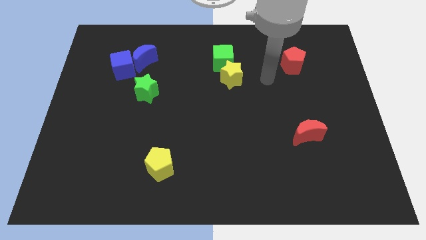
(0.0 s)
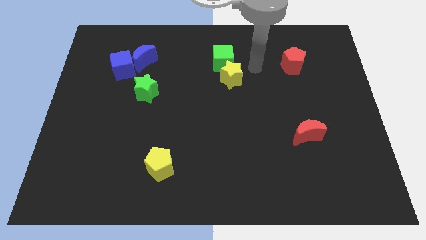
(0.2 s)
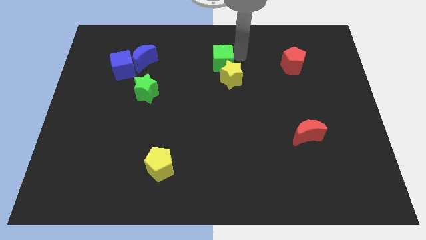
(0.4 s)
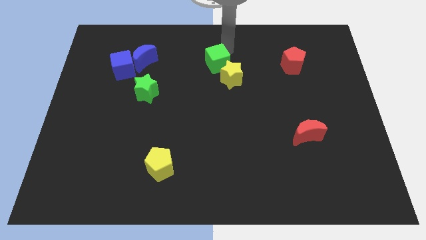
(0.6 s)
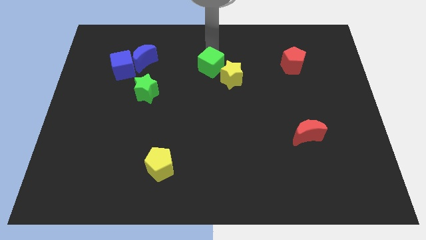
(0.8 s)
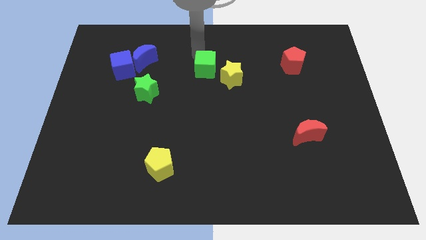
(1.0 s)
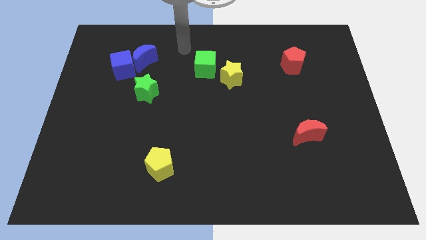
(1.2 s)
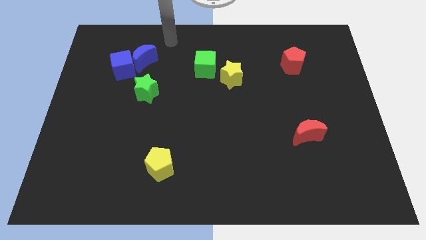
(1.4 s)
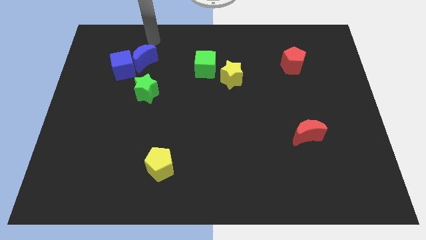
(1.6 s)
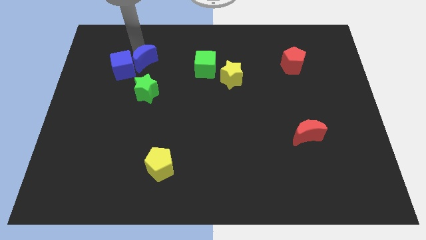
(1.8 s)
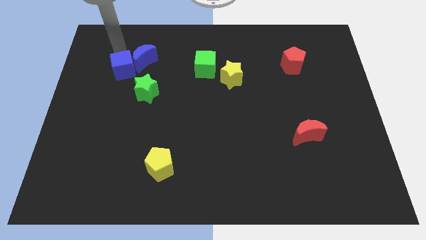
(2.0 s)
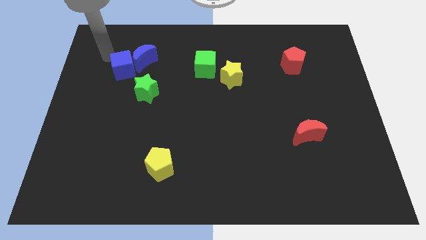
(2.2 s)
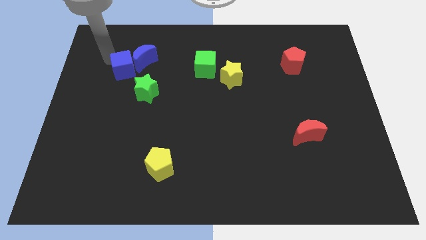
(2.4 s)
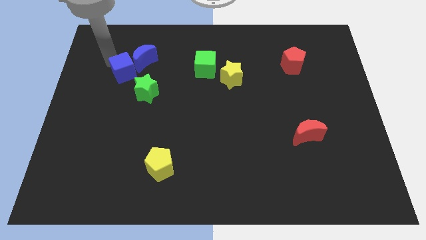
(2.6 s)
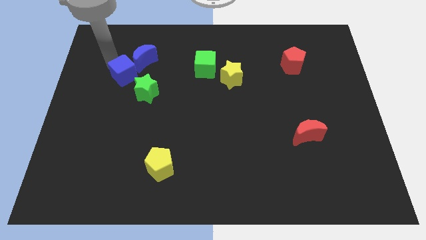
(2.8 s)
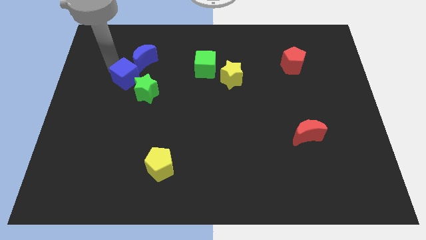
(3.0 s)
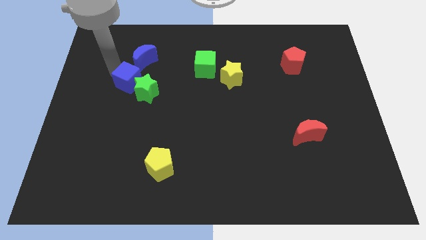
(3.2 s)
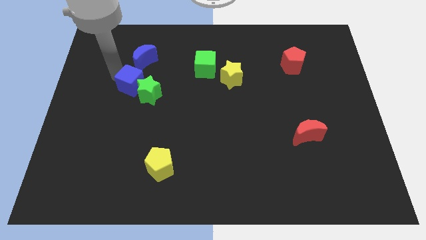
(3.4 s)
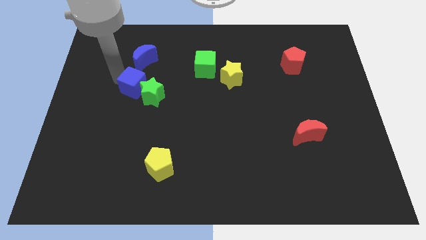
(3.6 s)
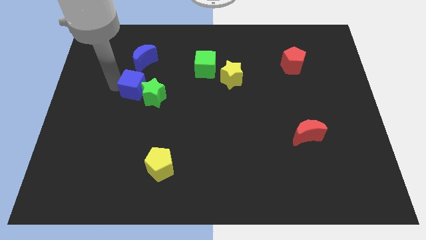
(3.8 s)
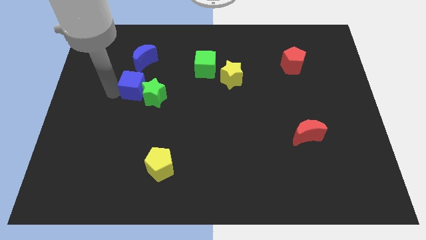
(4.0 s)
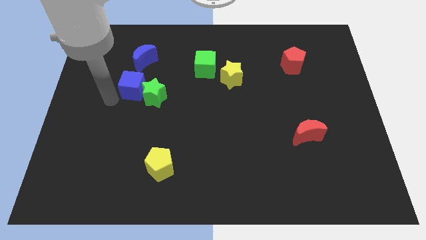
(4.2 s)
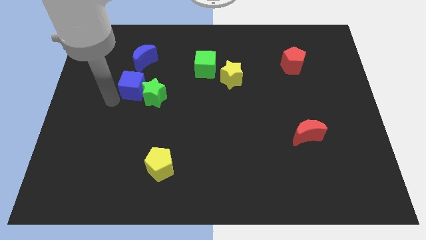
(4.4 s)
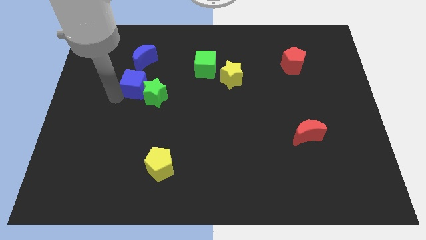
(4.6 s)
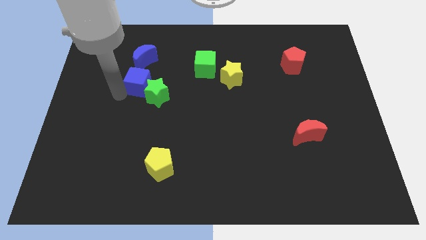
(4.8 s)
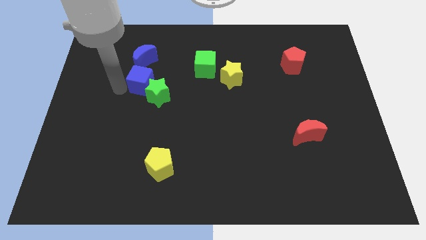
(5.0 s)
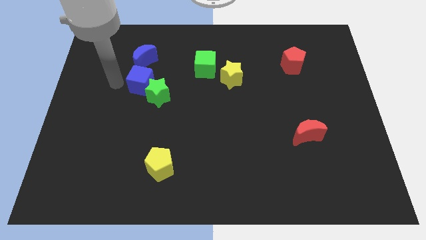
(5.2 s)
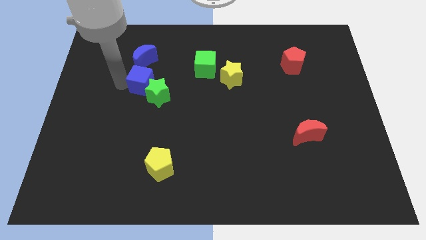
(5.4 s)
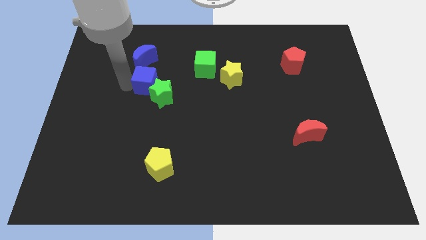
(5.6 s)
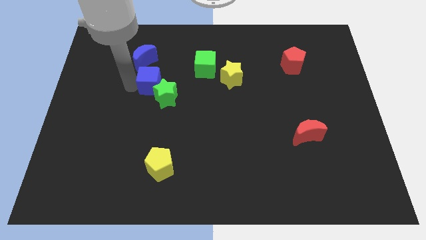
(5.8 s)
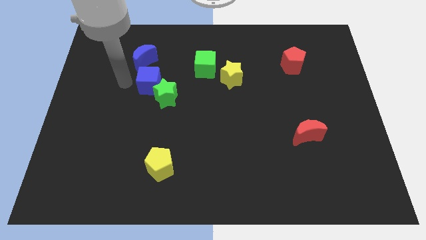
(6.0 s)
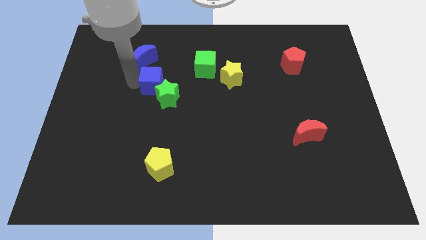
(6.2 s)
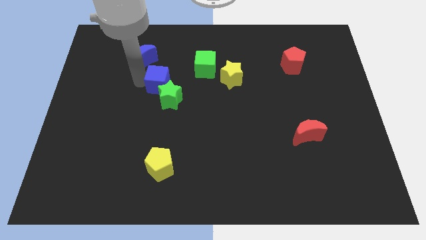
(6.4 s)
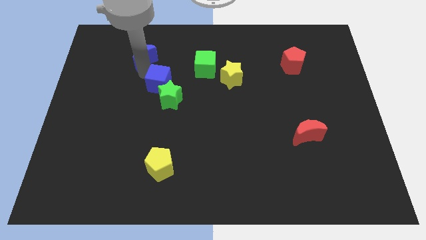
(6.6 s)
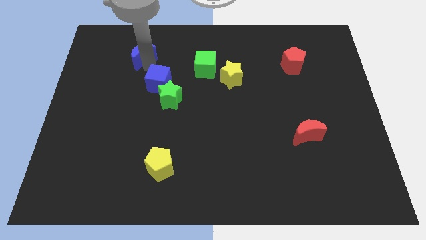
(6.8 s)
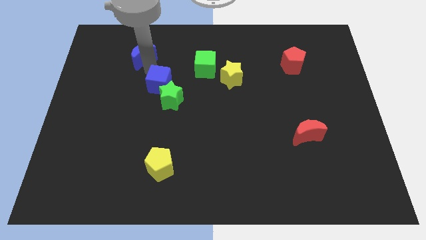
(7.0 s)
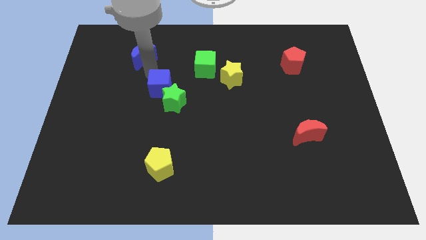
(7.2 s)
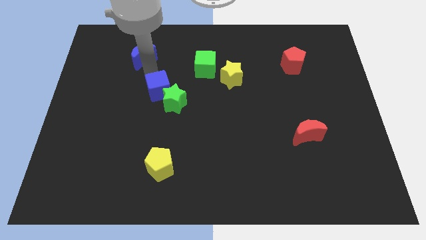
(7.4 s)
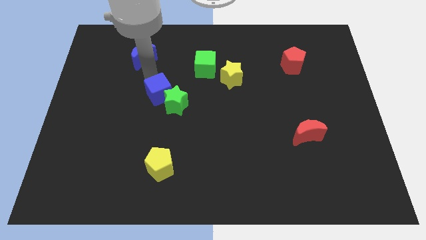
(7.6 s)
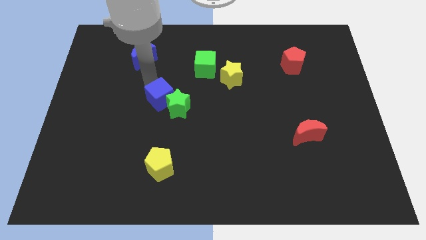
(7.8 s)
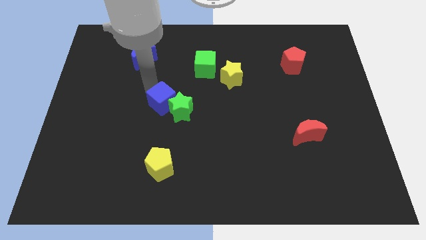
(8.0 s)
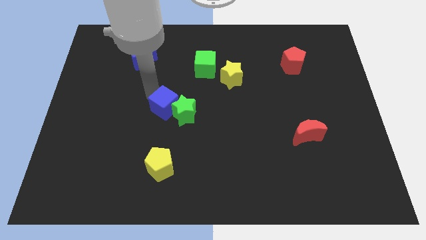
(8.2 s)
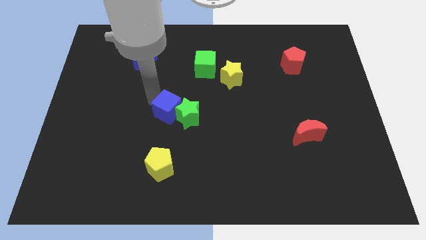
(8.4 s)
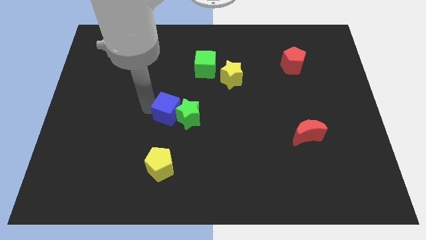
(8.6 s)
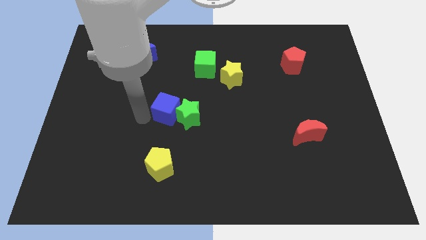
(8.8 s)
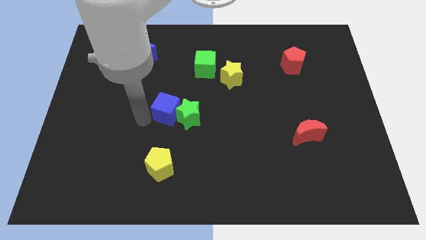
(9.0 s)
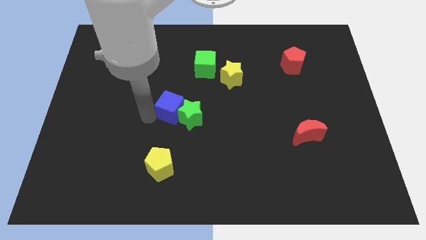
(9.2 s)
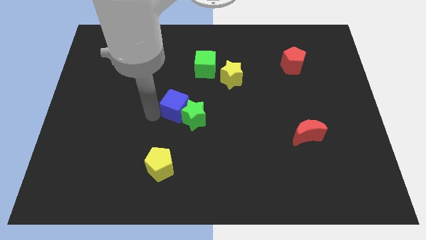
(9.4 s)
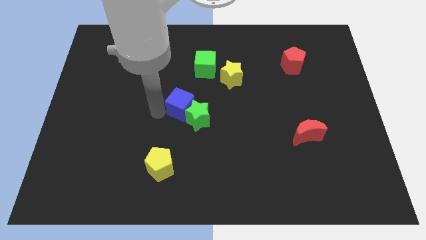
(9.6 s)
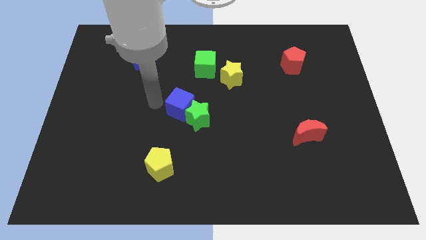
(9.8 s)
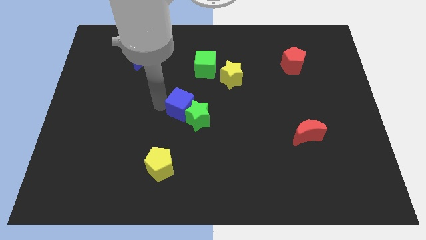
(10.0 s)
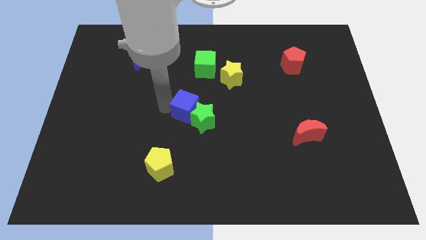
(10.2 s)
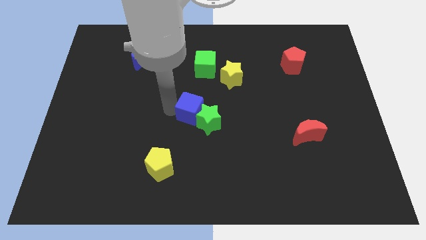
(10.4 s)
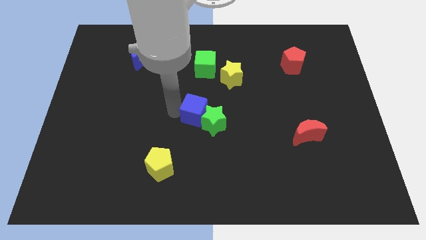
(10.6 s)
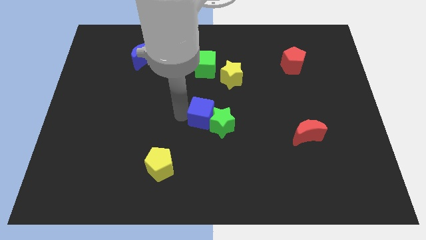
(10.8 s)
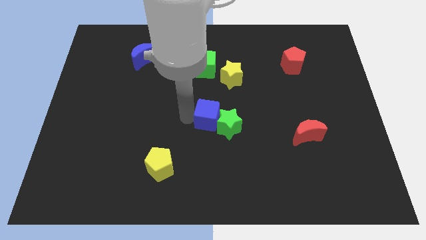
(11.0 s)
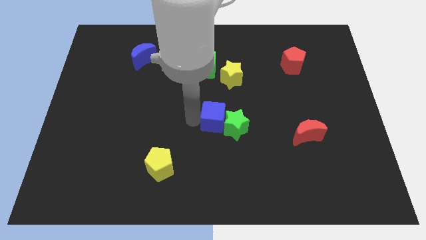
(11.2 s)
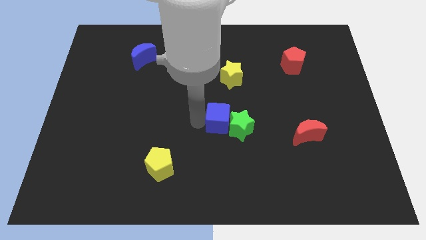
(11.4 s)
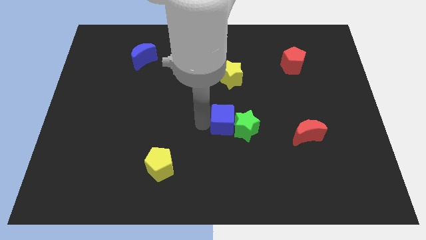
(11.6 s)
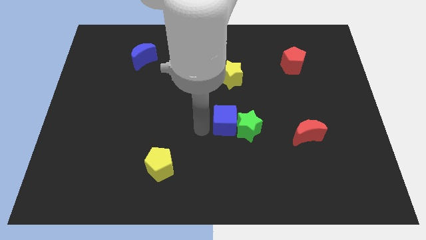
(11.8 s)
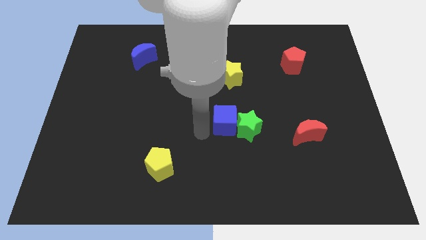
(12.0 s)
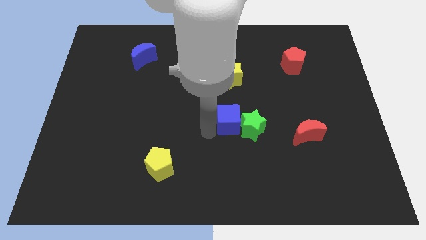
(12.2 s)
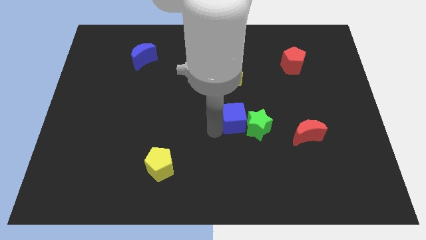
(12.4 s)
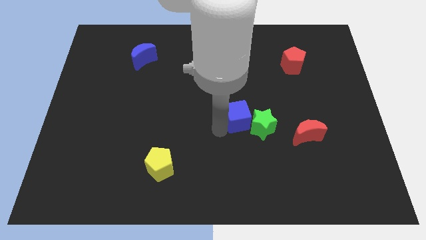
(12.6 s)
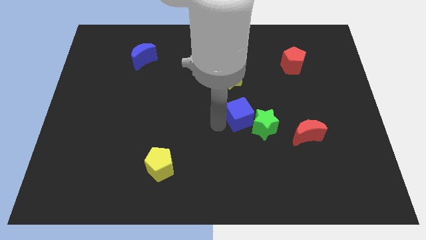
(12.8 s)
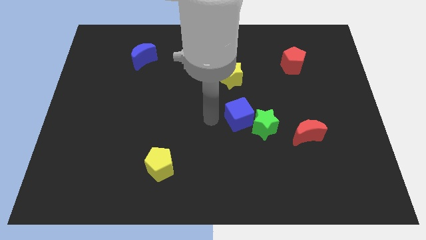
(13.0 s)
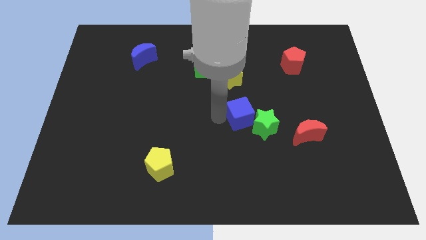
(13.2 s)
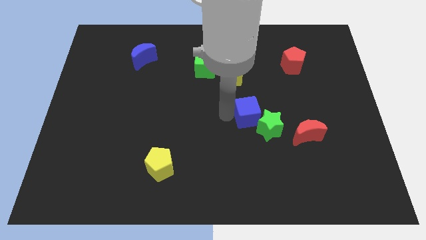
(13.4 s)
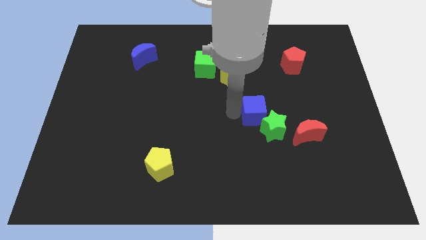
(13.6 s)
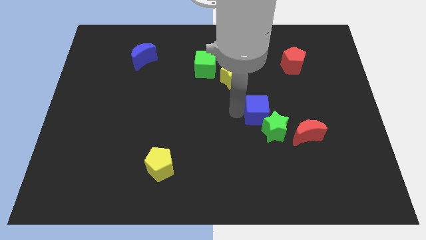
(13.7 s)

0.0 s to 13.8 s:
slide the blue cube to the top left of the red moon

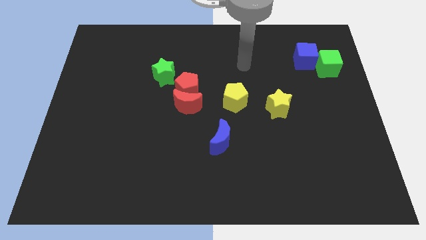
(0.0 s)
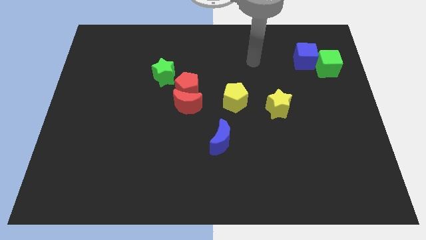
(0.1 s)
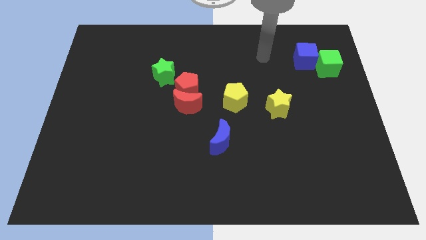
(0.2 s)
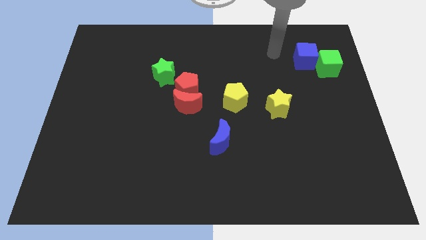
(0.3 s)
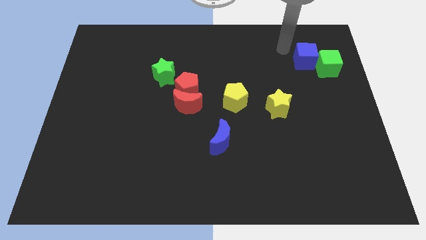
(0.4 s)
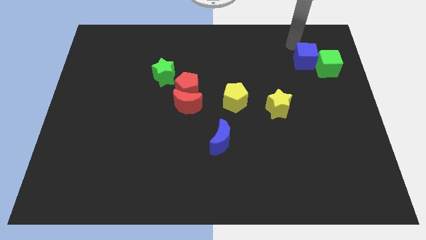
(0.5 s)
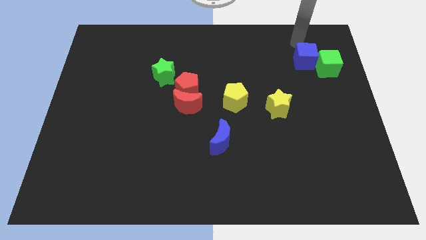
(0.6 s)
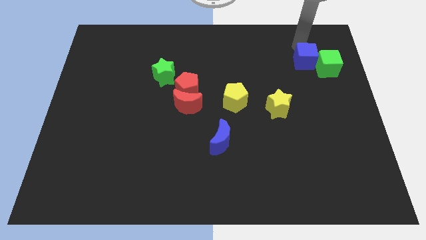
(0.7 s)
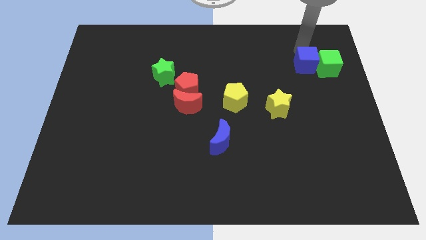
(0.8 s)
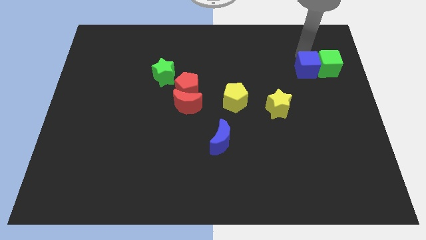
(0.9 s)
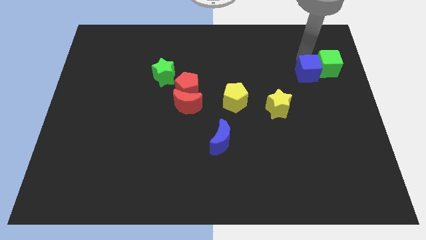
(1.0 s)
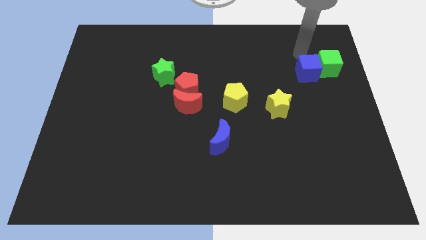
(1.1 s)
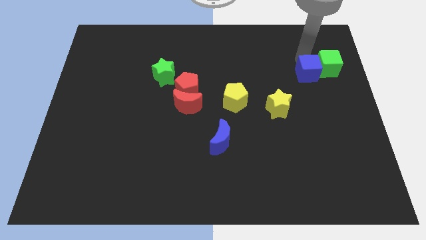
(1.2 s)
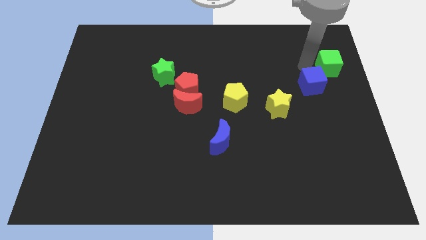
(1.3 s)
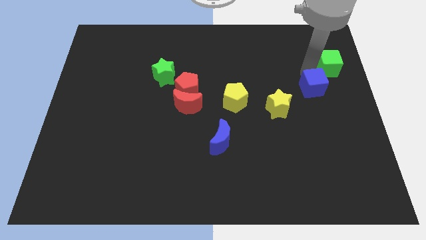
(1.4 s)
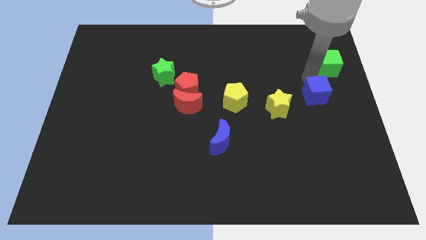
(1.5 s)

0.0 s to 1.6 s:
push the blue cube just right of the yellow star
